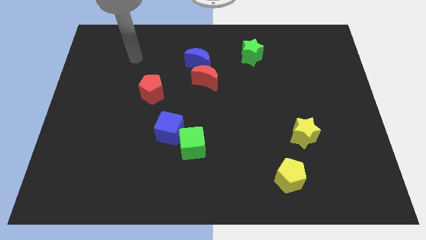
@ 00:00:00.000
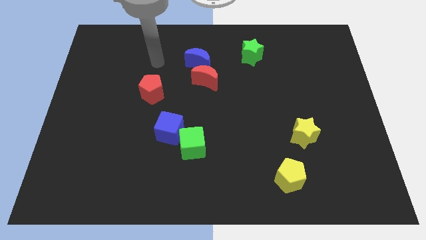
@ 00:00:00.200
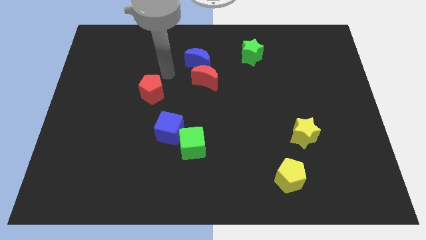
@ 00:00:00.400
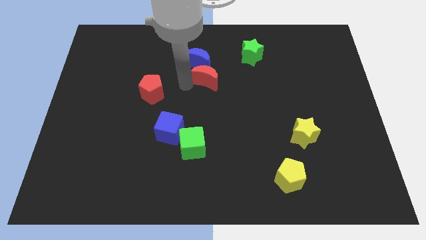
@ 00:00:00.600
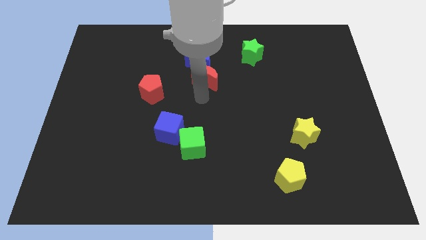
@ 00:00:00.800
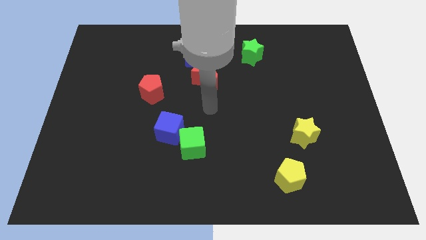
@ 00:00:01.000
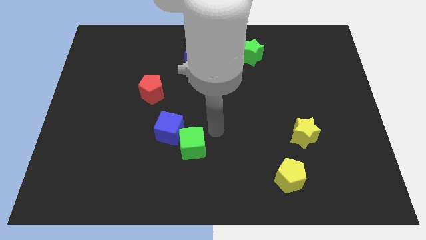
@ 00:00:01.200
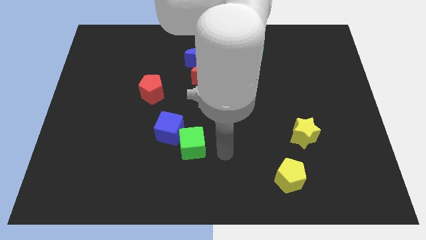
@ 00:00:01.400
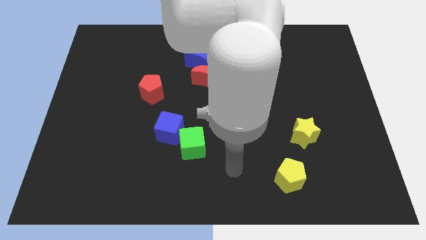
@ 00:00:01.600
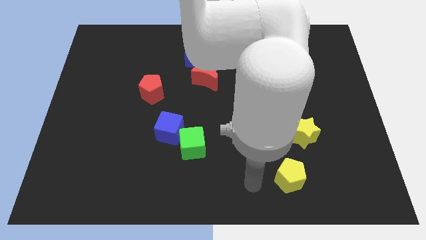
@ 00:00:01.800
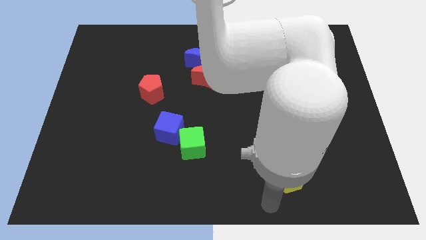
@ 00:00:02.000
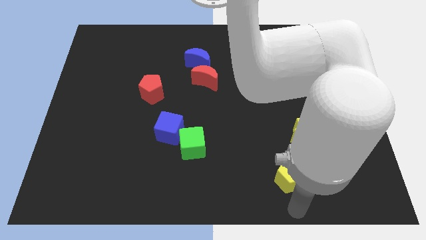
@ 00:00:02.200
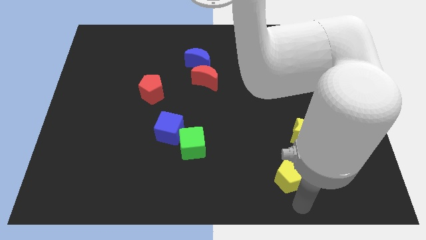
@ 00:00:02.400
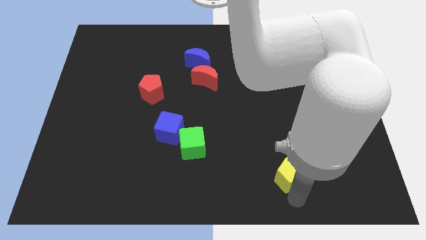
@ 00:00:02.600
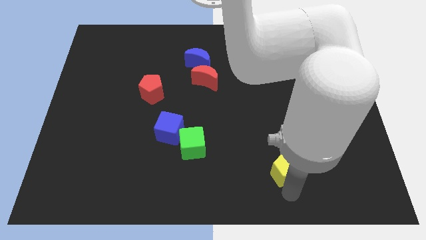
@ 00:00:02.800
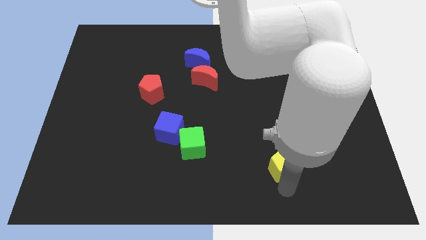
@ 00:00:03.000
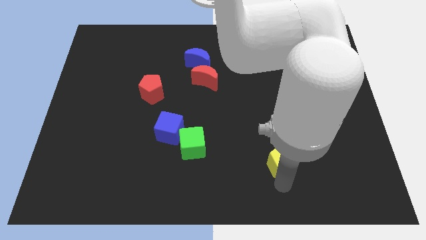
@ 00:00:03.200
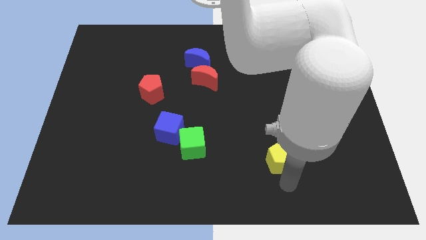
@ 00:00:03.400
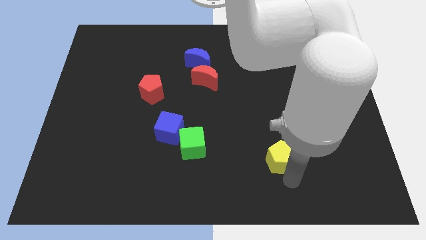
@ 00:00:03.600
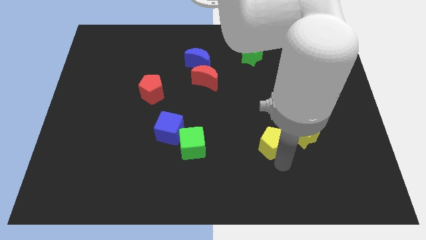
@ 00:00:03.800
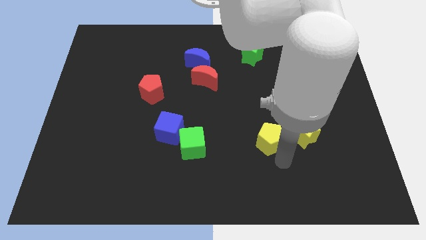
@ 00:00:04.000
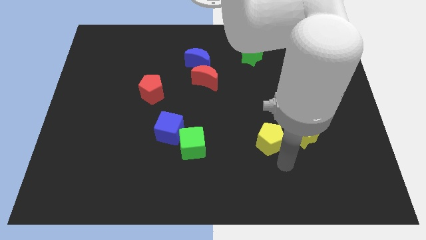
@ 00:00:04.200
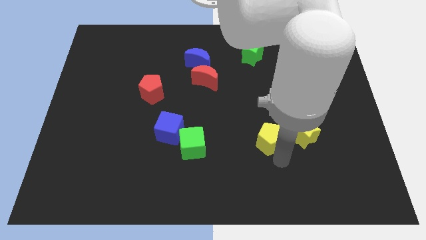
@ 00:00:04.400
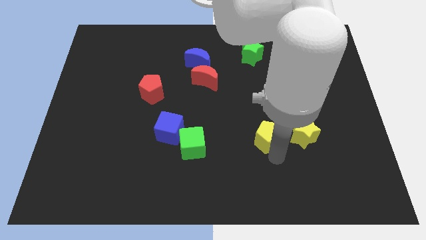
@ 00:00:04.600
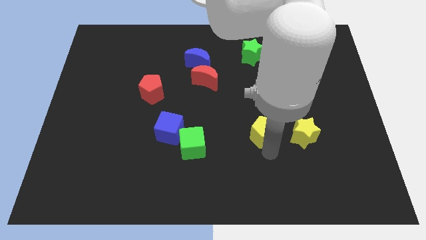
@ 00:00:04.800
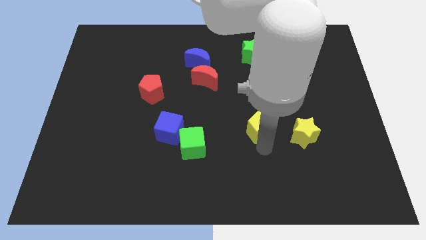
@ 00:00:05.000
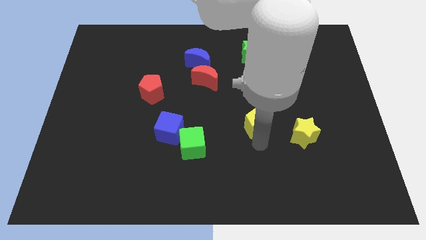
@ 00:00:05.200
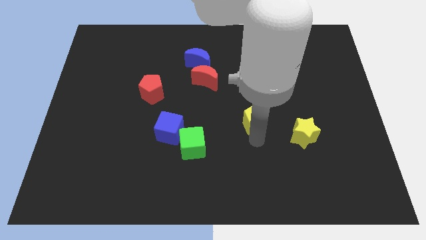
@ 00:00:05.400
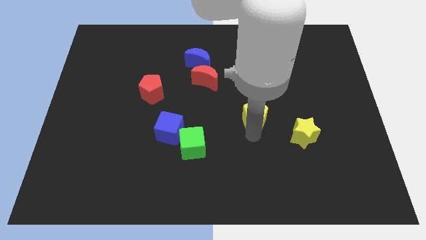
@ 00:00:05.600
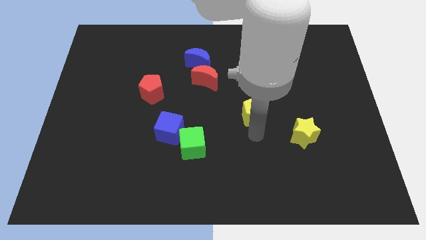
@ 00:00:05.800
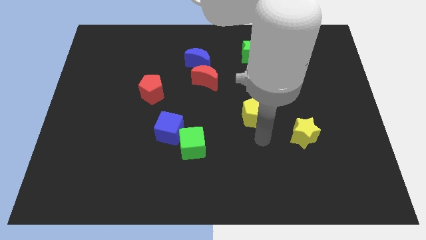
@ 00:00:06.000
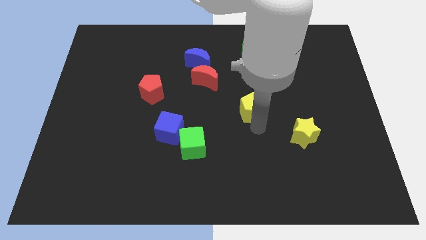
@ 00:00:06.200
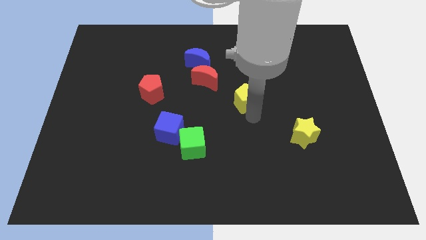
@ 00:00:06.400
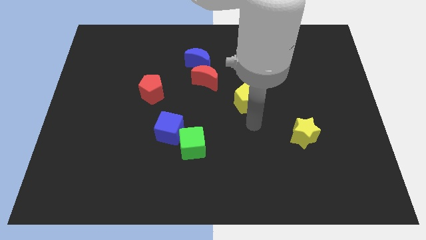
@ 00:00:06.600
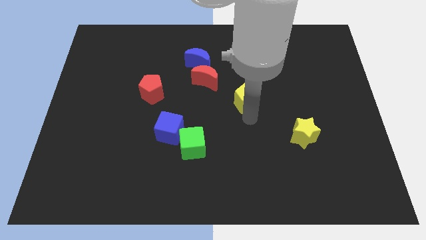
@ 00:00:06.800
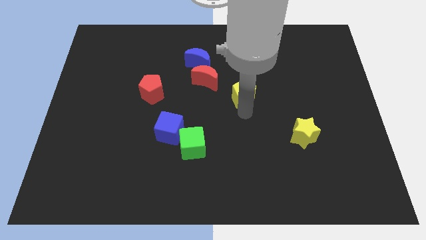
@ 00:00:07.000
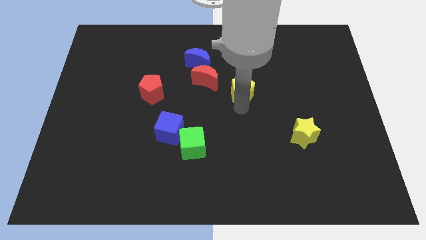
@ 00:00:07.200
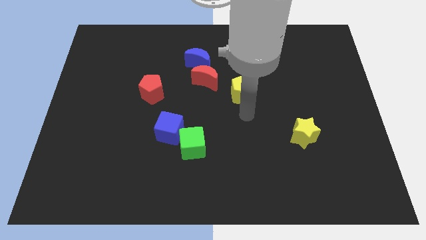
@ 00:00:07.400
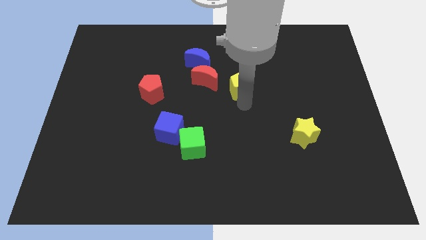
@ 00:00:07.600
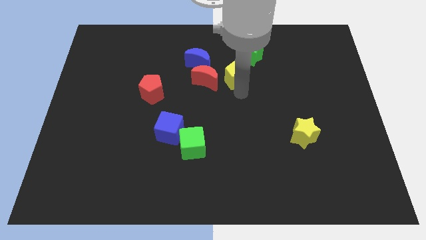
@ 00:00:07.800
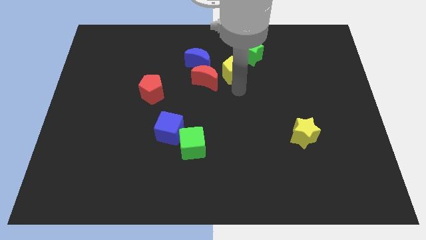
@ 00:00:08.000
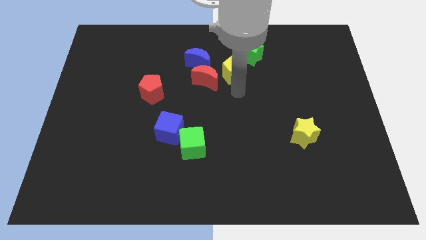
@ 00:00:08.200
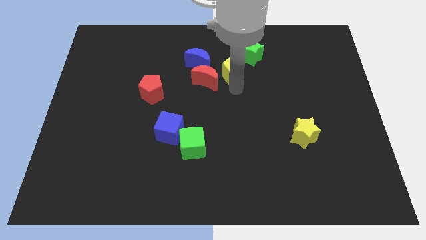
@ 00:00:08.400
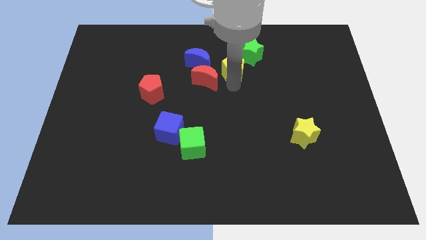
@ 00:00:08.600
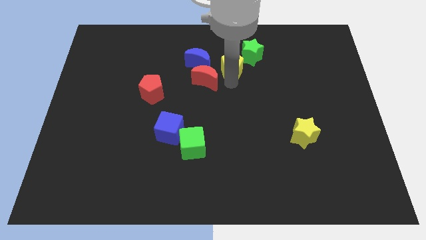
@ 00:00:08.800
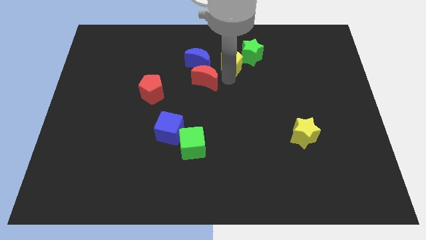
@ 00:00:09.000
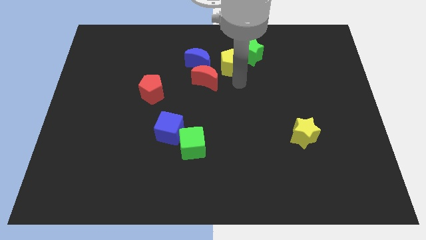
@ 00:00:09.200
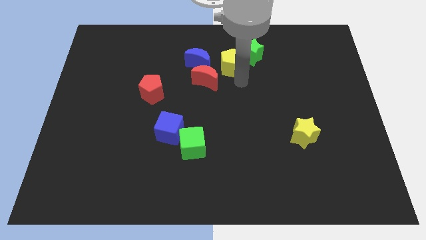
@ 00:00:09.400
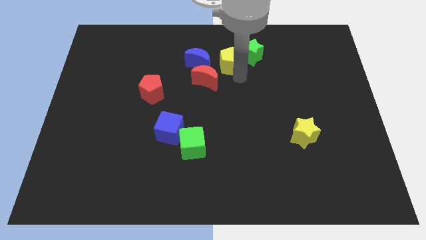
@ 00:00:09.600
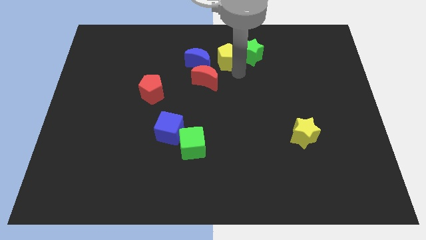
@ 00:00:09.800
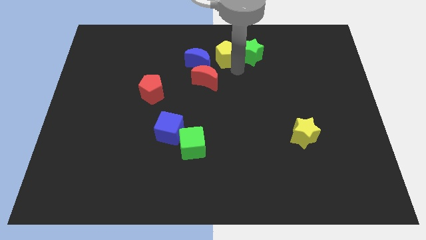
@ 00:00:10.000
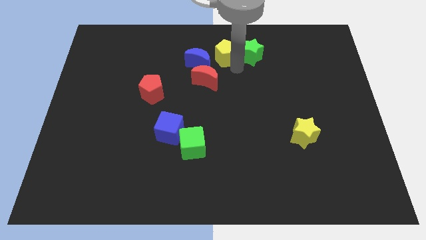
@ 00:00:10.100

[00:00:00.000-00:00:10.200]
move the yellow pentagon to the top side

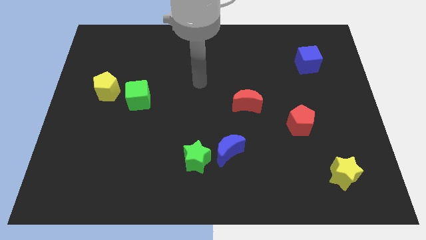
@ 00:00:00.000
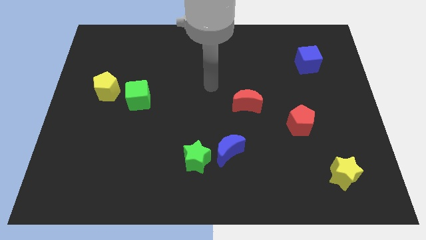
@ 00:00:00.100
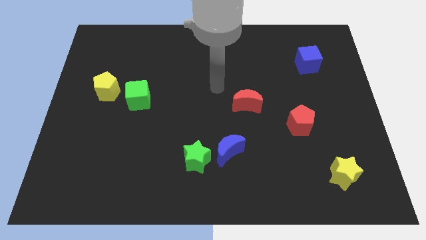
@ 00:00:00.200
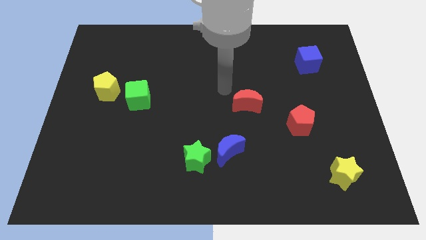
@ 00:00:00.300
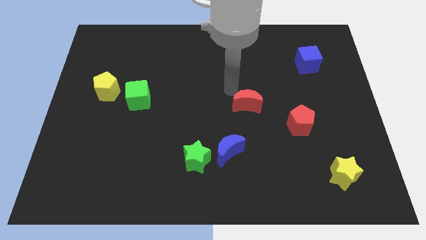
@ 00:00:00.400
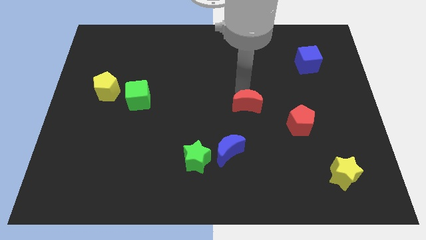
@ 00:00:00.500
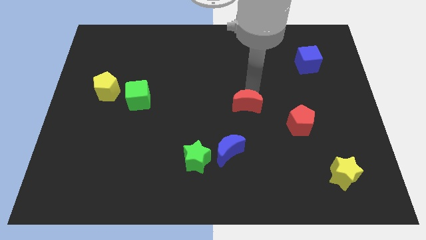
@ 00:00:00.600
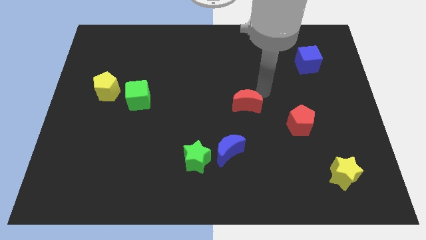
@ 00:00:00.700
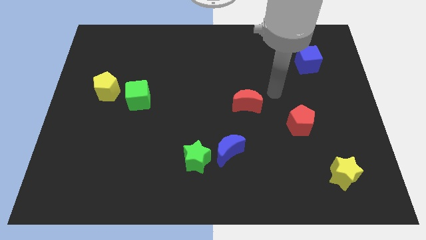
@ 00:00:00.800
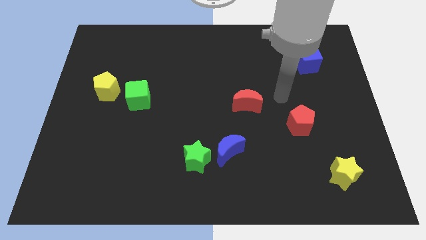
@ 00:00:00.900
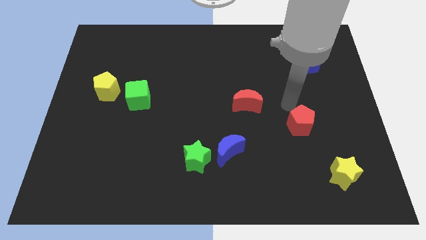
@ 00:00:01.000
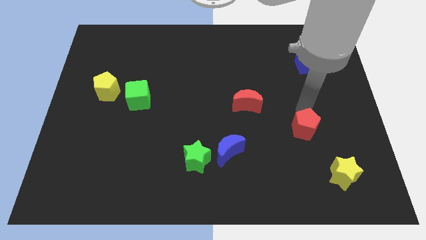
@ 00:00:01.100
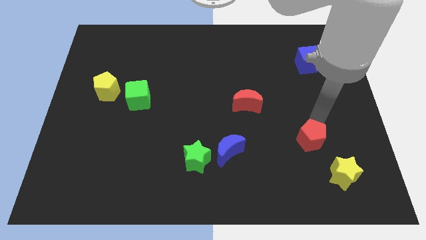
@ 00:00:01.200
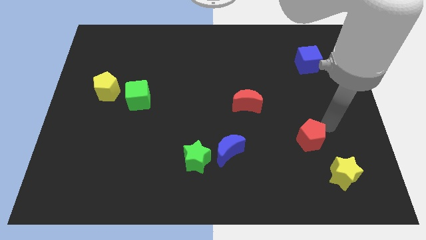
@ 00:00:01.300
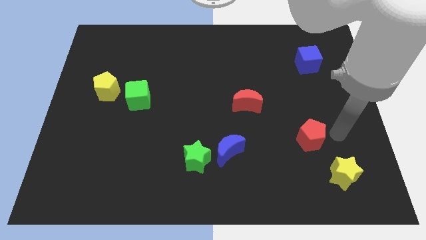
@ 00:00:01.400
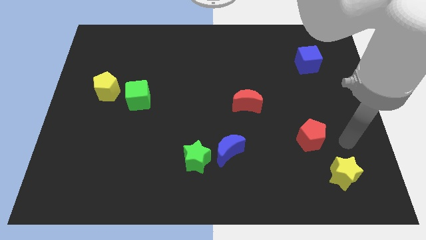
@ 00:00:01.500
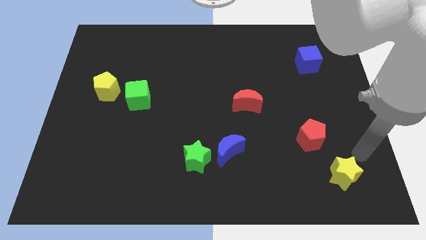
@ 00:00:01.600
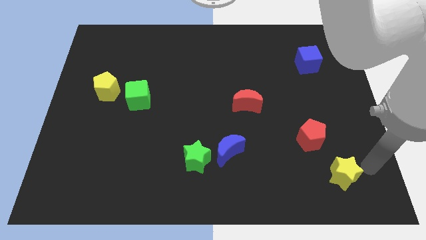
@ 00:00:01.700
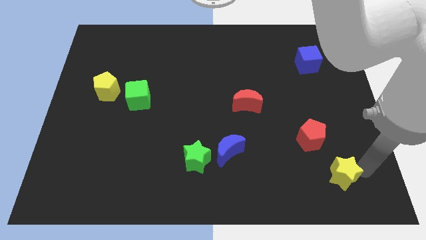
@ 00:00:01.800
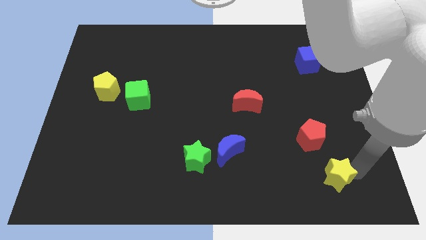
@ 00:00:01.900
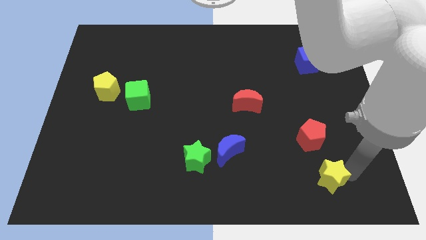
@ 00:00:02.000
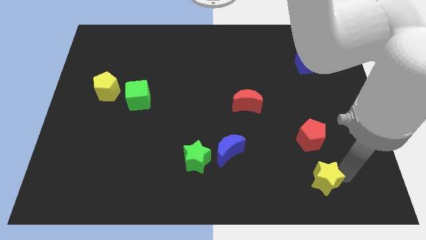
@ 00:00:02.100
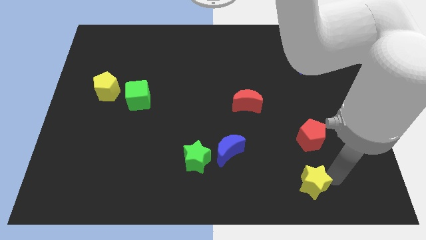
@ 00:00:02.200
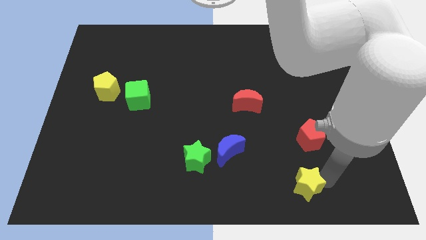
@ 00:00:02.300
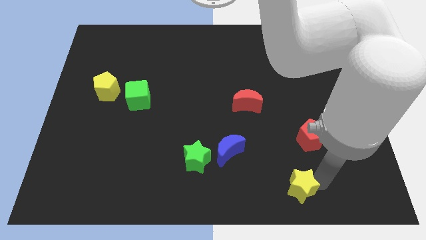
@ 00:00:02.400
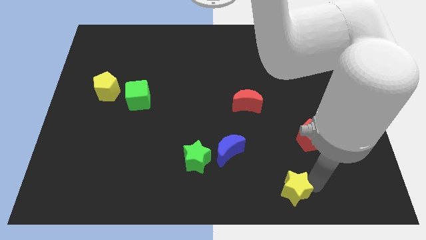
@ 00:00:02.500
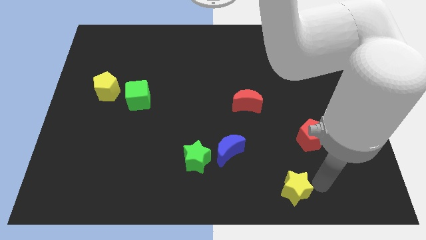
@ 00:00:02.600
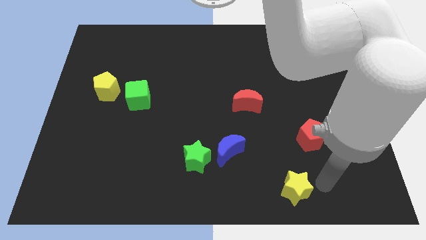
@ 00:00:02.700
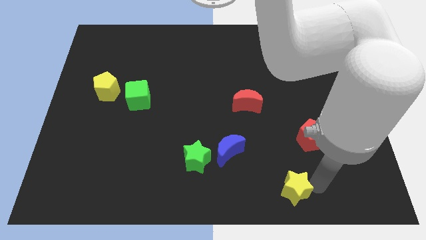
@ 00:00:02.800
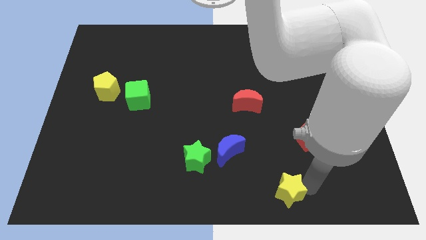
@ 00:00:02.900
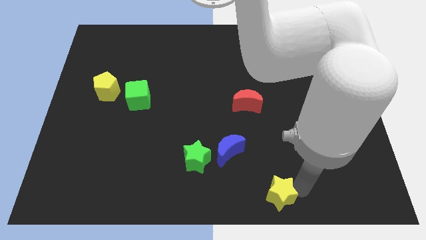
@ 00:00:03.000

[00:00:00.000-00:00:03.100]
slide the yellow star to the bottom
